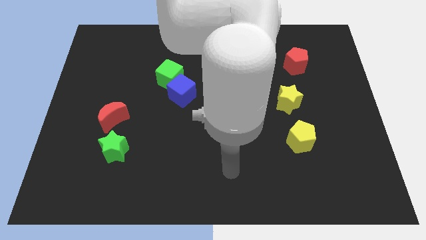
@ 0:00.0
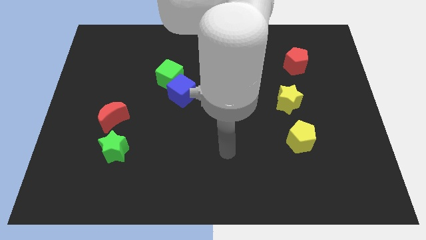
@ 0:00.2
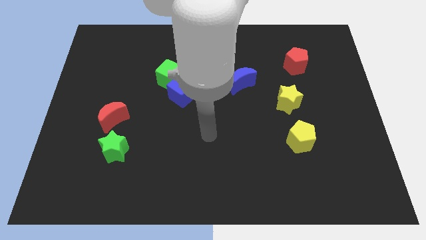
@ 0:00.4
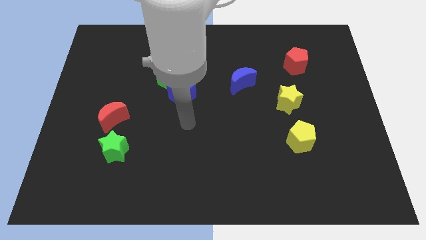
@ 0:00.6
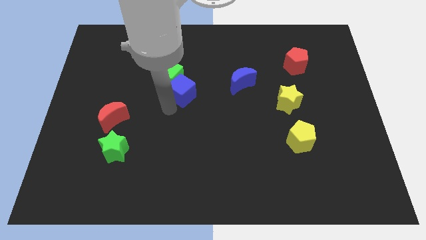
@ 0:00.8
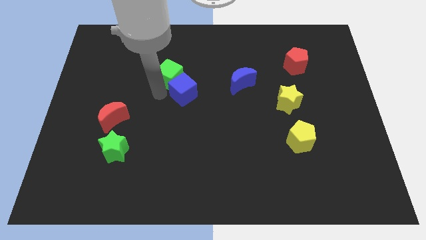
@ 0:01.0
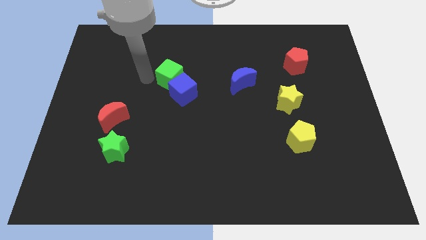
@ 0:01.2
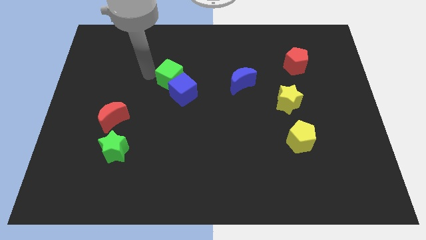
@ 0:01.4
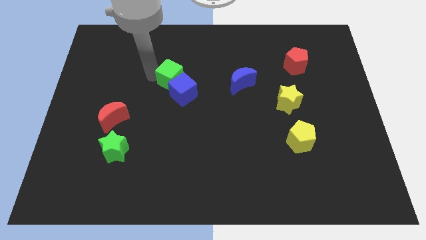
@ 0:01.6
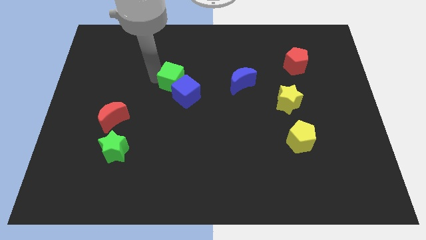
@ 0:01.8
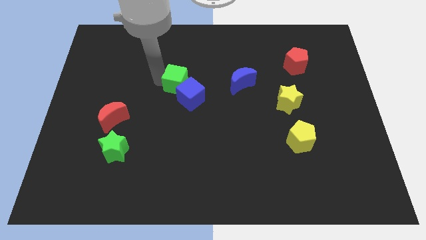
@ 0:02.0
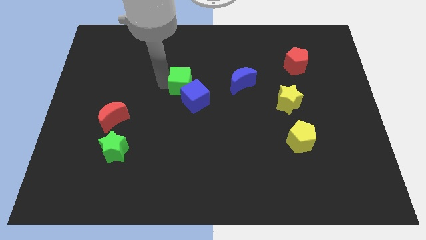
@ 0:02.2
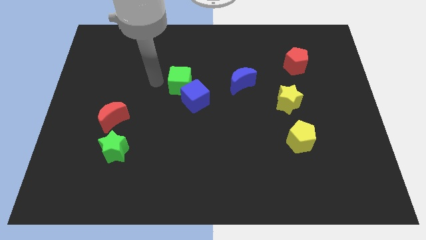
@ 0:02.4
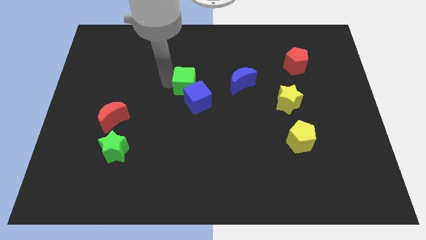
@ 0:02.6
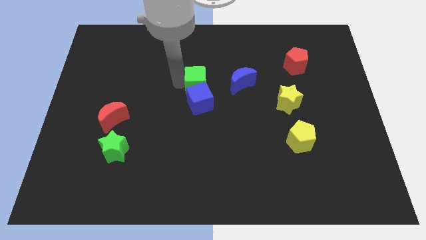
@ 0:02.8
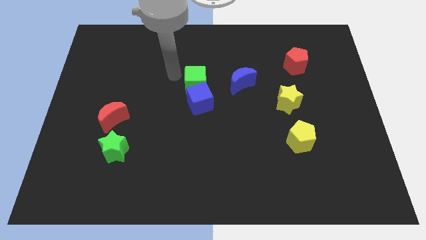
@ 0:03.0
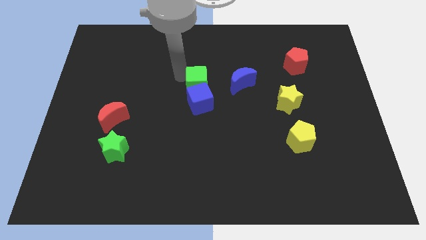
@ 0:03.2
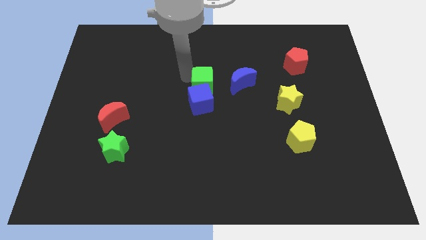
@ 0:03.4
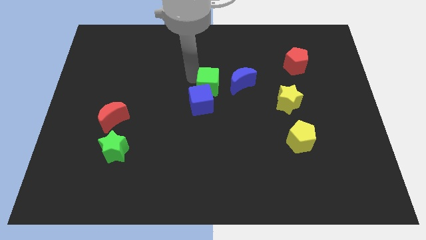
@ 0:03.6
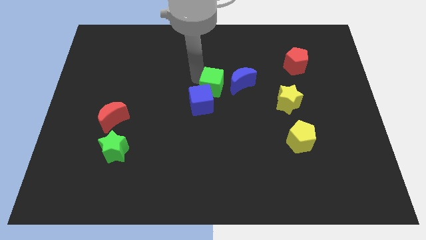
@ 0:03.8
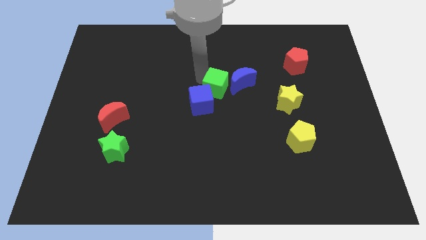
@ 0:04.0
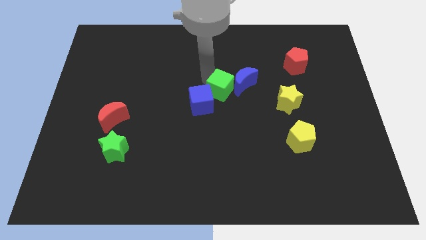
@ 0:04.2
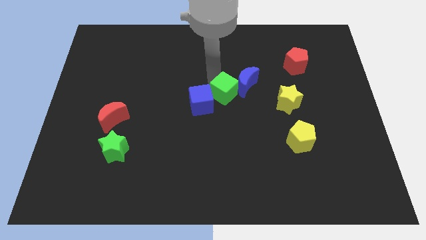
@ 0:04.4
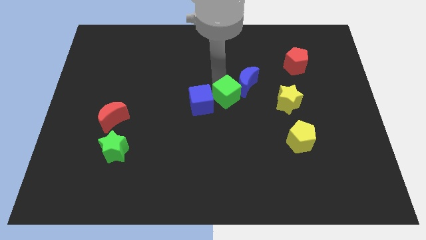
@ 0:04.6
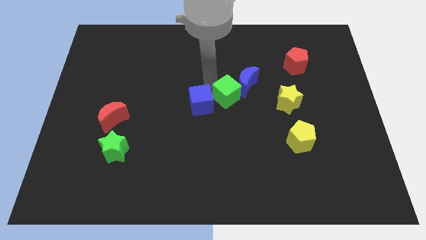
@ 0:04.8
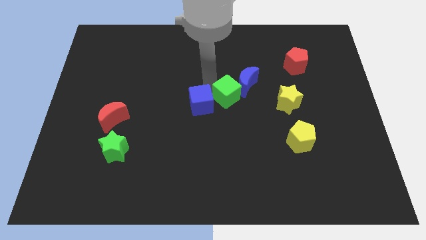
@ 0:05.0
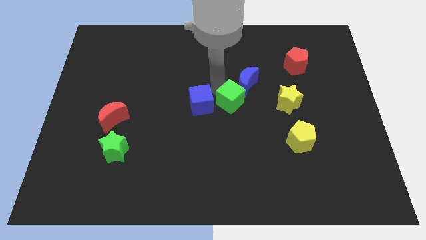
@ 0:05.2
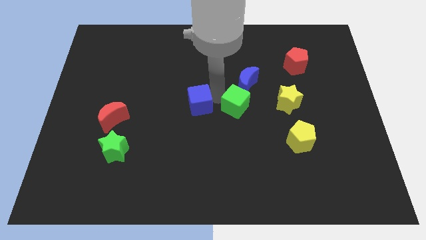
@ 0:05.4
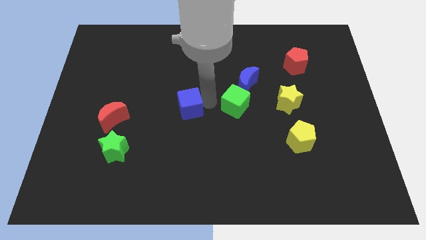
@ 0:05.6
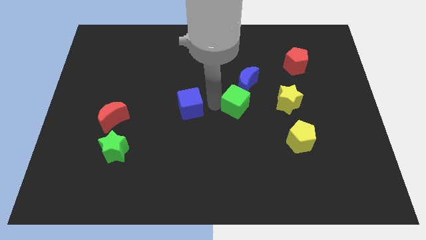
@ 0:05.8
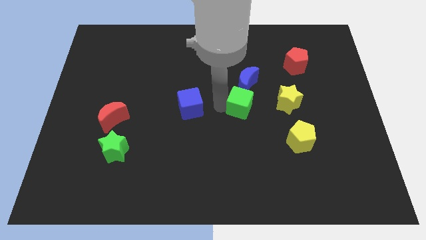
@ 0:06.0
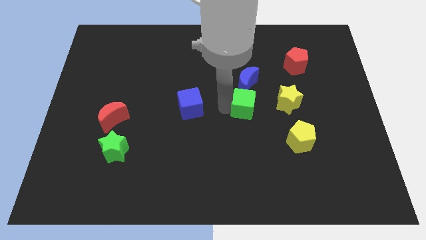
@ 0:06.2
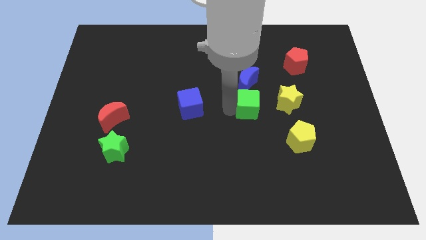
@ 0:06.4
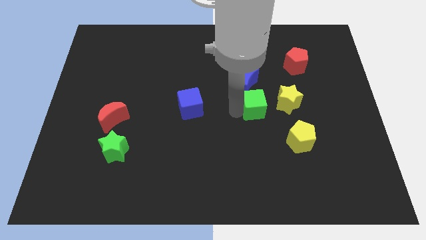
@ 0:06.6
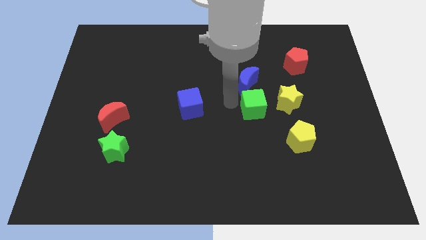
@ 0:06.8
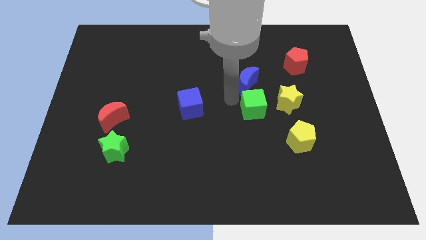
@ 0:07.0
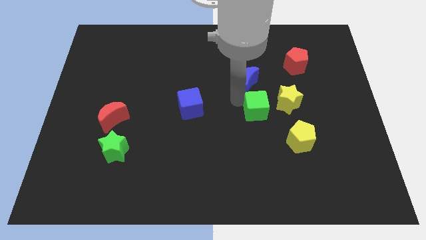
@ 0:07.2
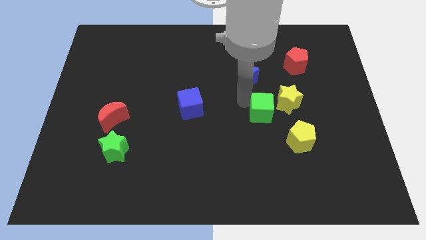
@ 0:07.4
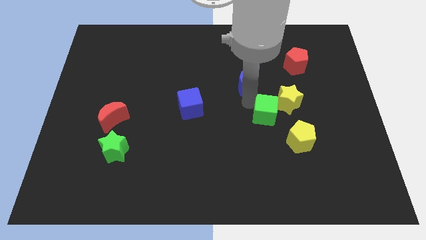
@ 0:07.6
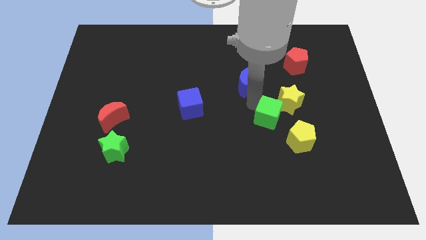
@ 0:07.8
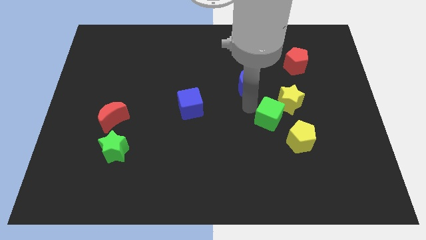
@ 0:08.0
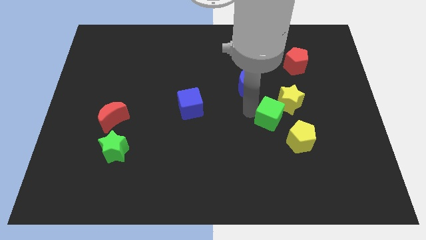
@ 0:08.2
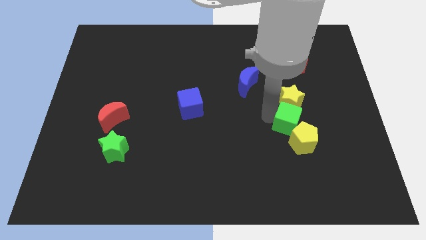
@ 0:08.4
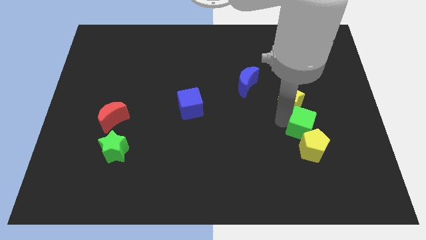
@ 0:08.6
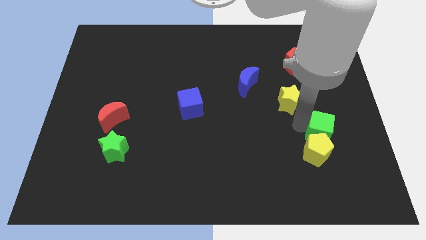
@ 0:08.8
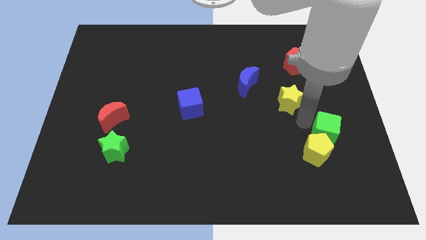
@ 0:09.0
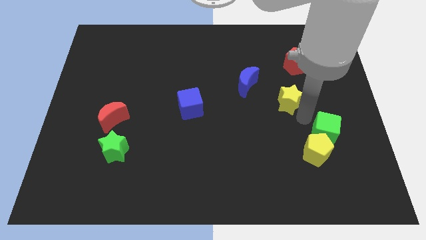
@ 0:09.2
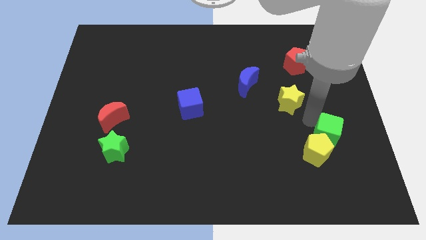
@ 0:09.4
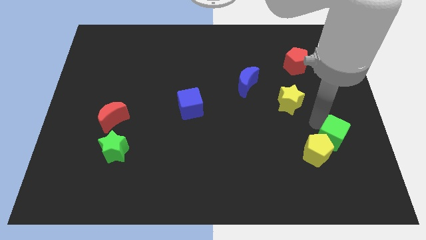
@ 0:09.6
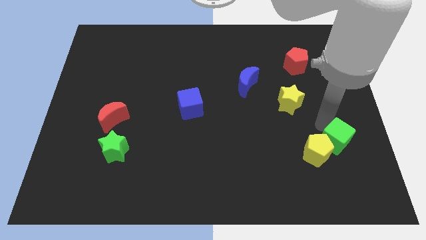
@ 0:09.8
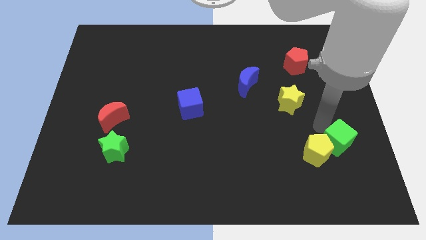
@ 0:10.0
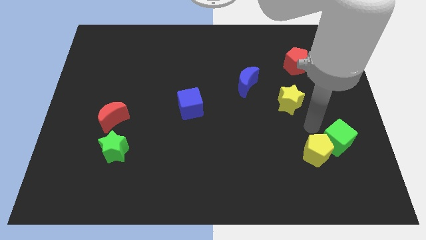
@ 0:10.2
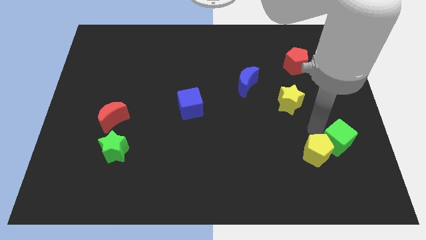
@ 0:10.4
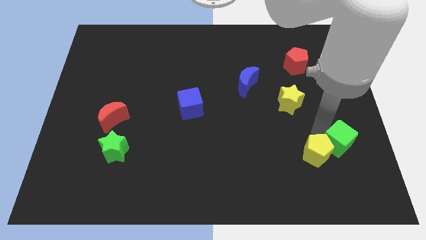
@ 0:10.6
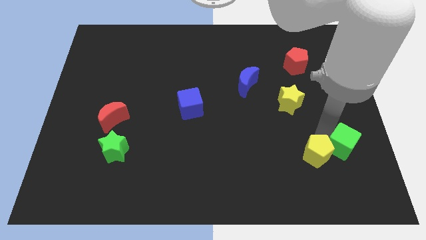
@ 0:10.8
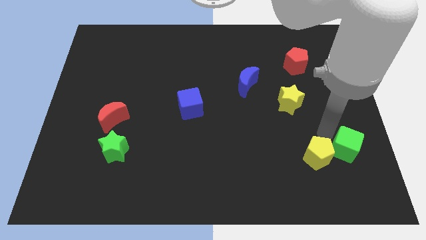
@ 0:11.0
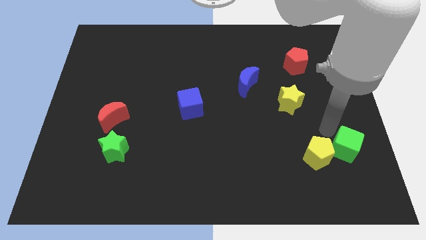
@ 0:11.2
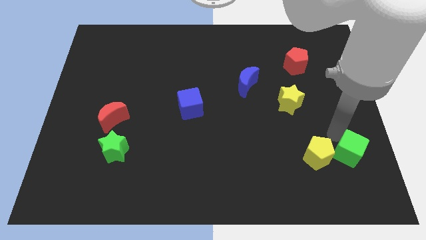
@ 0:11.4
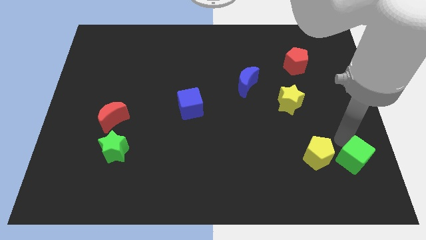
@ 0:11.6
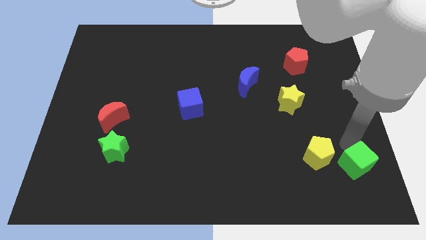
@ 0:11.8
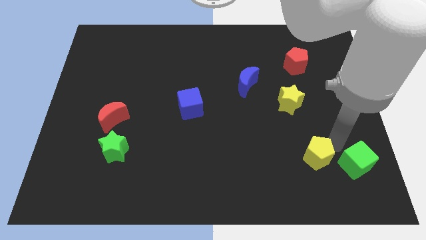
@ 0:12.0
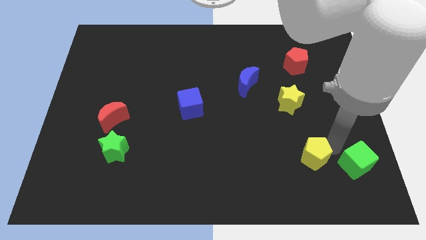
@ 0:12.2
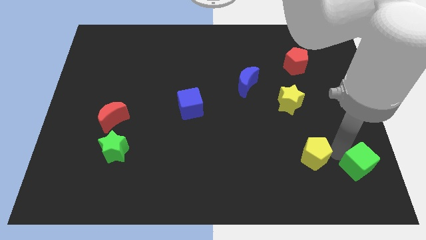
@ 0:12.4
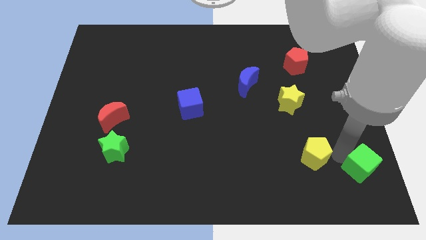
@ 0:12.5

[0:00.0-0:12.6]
push the green cube to the bottom right of the board
